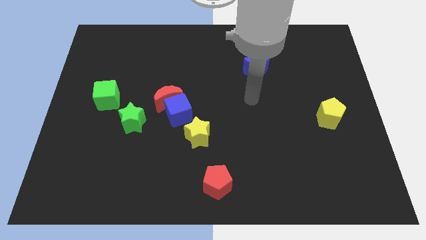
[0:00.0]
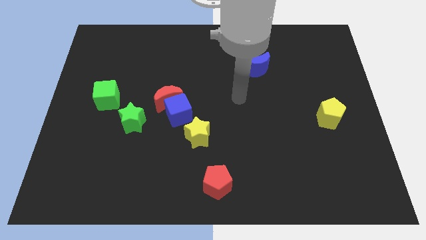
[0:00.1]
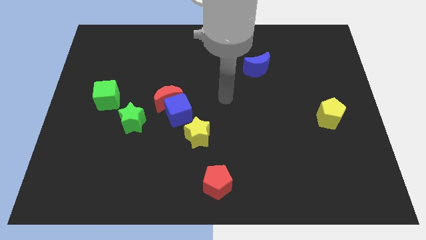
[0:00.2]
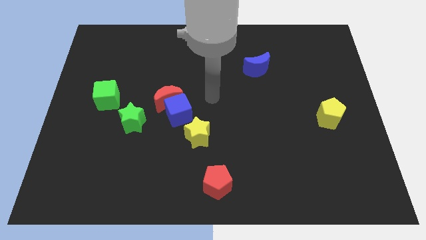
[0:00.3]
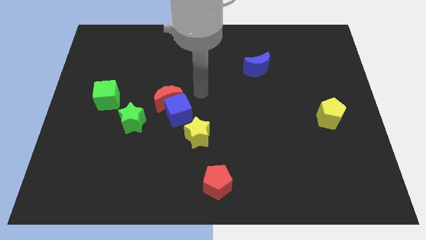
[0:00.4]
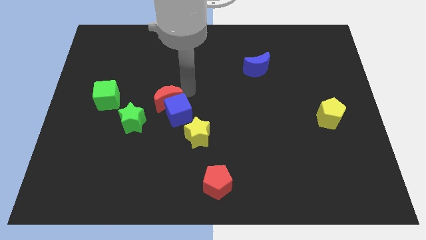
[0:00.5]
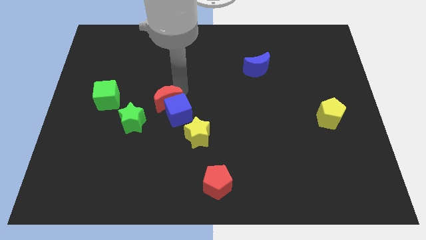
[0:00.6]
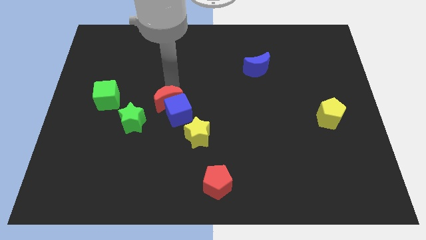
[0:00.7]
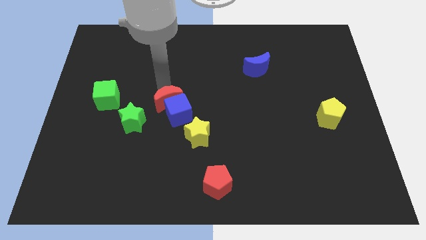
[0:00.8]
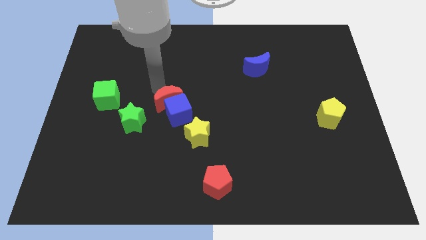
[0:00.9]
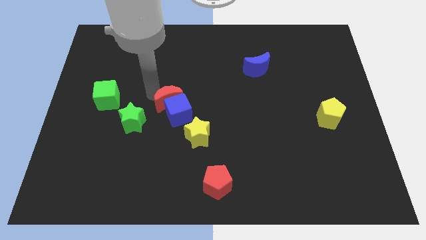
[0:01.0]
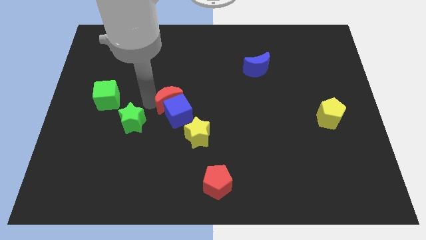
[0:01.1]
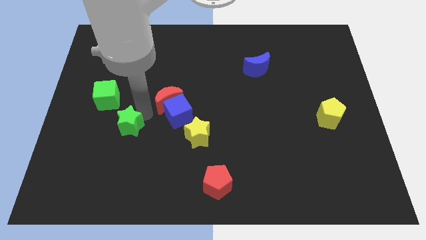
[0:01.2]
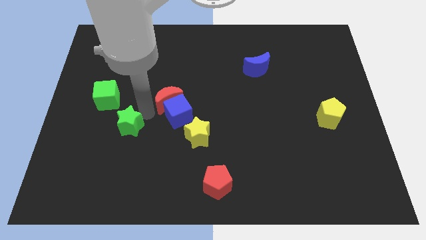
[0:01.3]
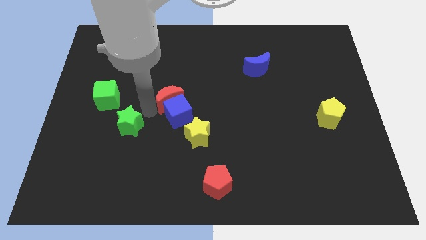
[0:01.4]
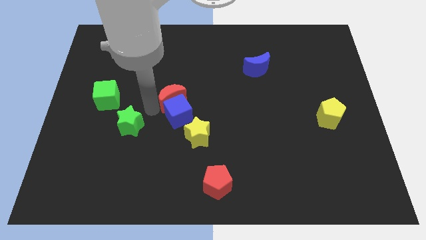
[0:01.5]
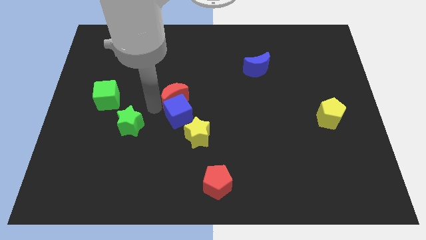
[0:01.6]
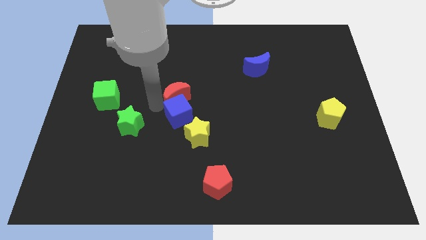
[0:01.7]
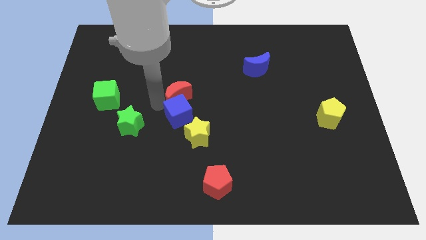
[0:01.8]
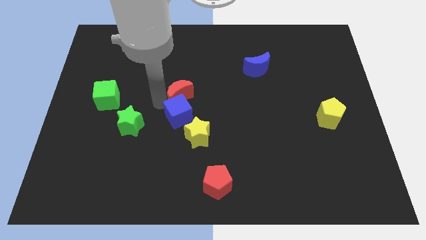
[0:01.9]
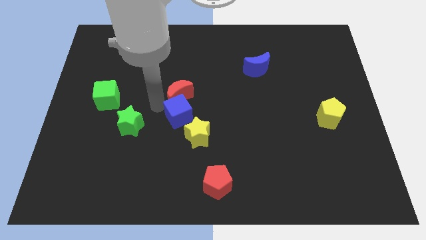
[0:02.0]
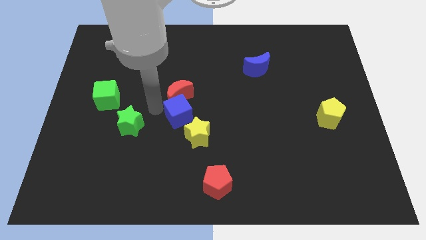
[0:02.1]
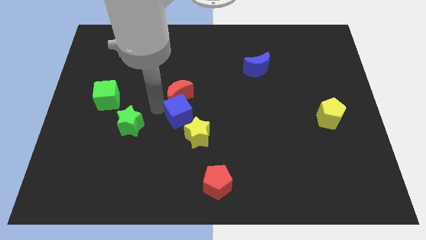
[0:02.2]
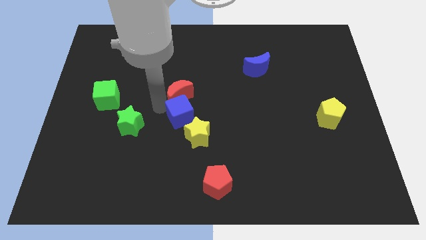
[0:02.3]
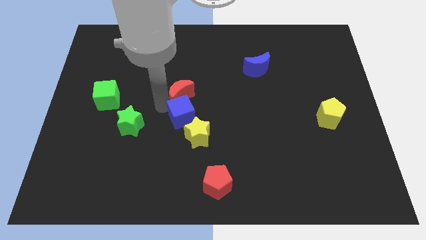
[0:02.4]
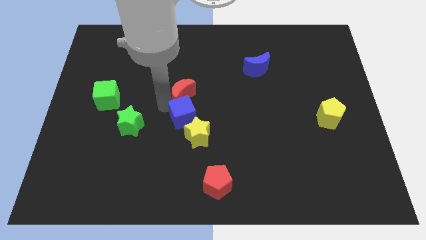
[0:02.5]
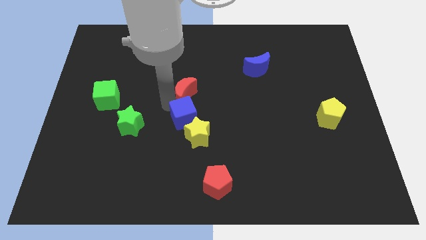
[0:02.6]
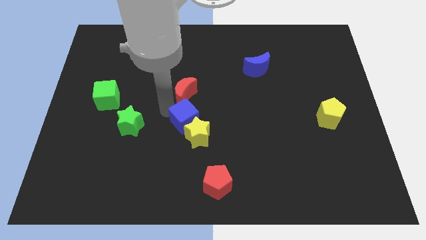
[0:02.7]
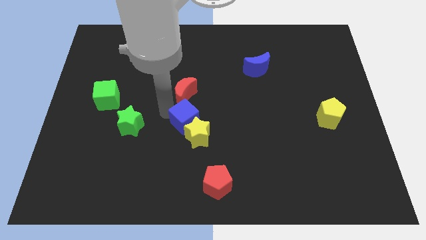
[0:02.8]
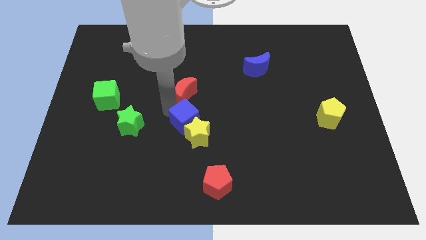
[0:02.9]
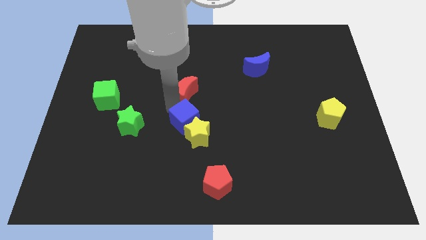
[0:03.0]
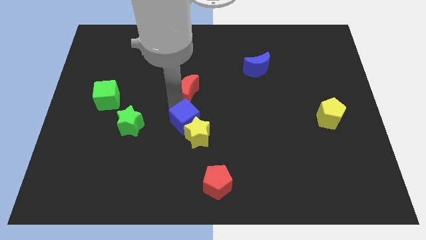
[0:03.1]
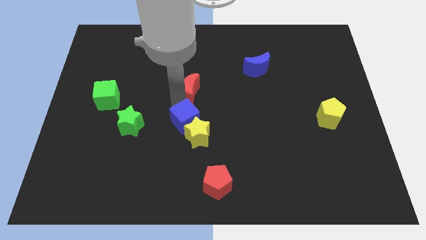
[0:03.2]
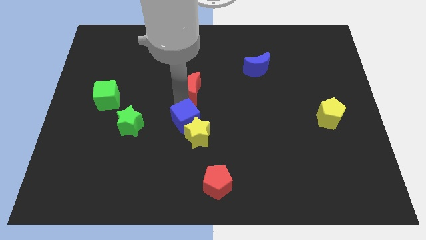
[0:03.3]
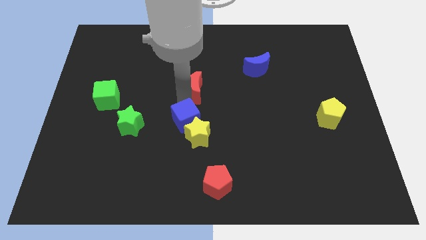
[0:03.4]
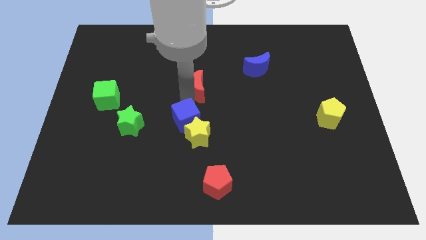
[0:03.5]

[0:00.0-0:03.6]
move the red moon diagonally up and right somewhat

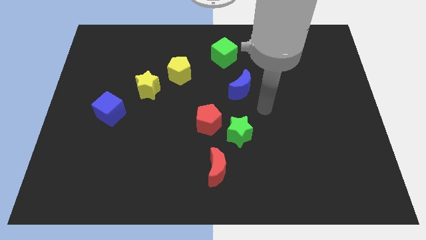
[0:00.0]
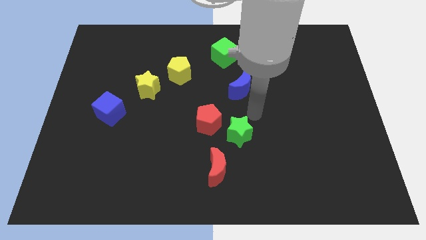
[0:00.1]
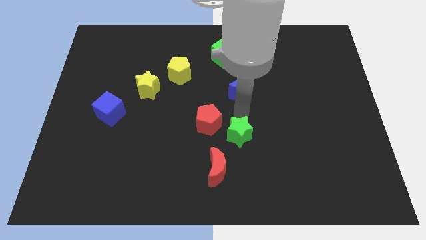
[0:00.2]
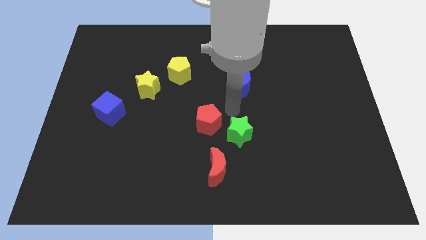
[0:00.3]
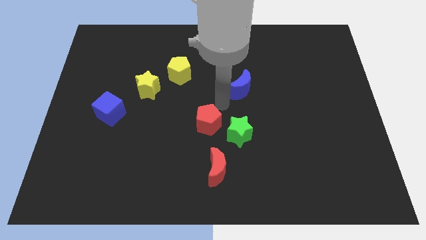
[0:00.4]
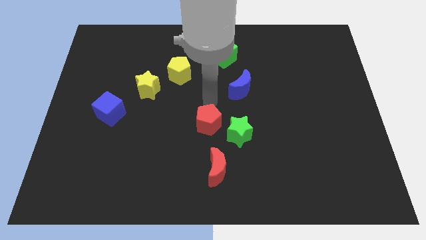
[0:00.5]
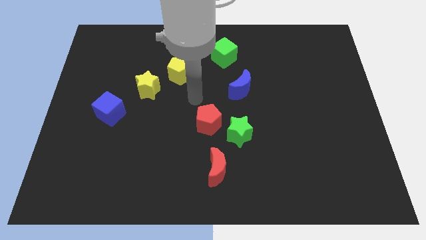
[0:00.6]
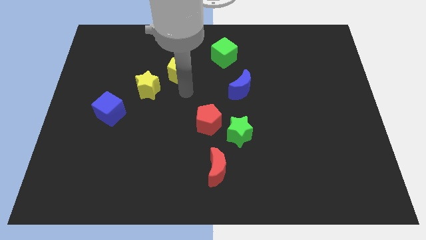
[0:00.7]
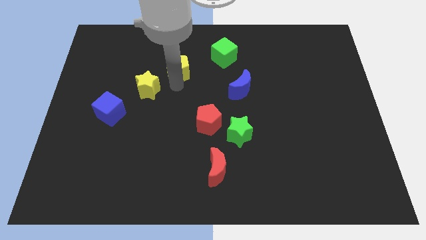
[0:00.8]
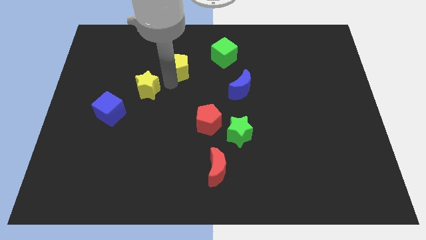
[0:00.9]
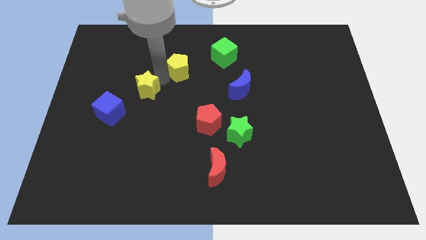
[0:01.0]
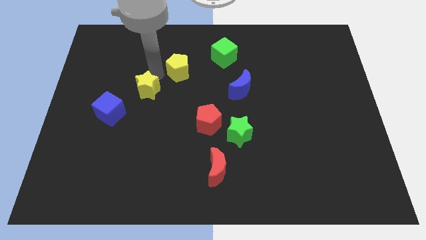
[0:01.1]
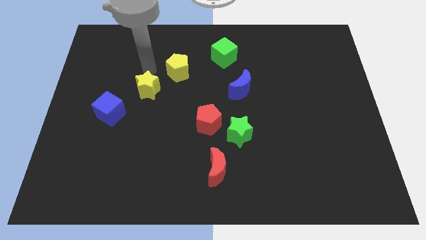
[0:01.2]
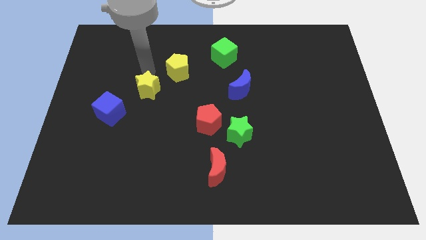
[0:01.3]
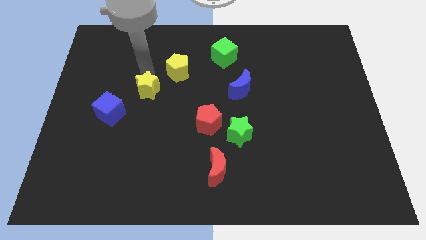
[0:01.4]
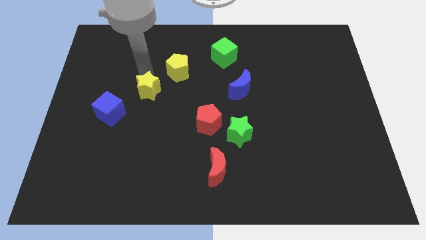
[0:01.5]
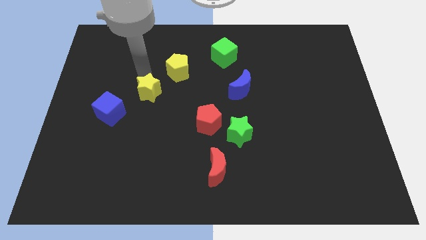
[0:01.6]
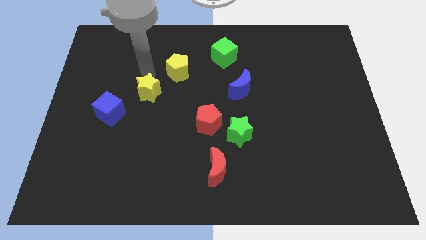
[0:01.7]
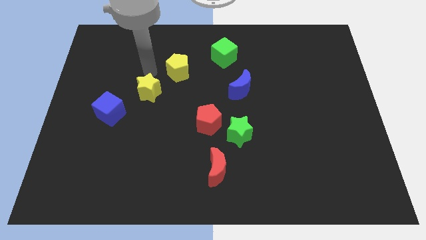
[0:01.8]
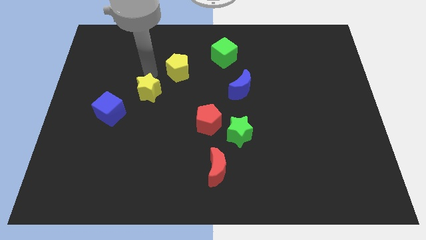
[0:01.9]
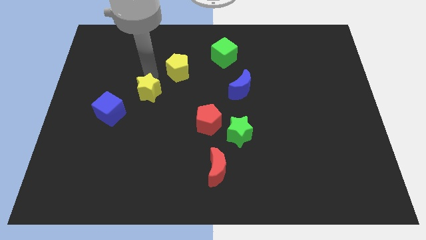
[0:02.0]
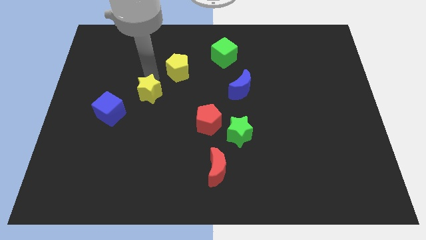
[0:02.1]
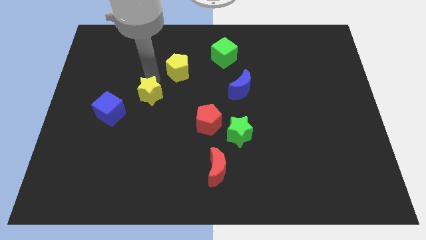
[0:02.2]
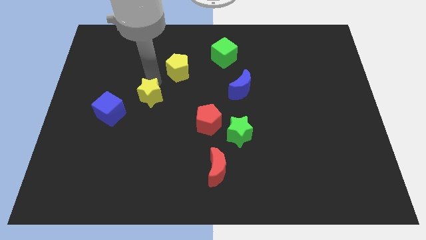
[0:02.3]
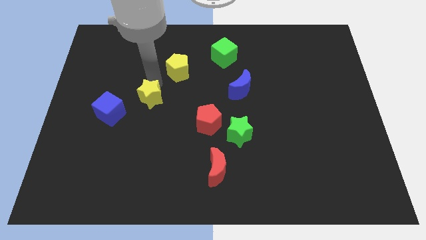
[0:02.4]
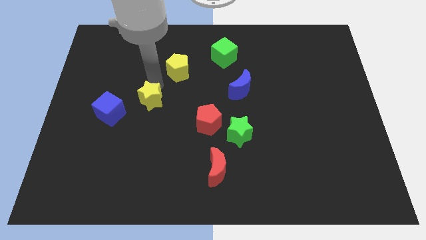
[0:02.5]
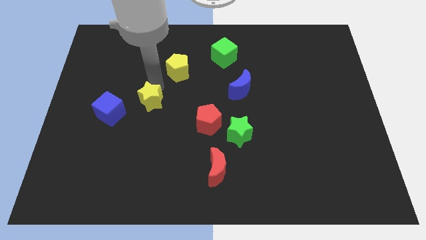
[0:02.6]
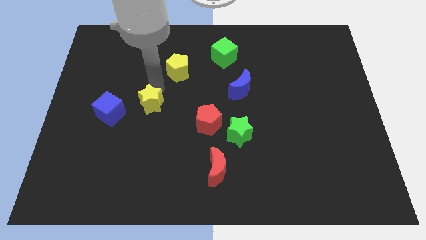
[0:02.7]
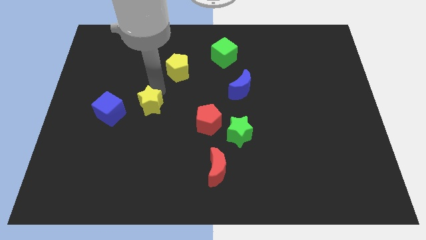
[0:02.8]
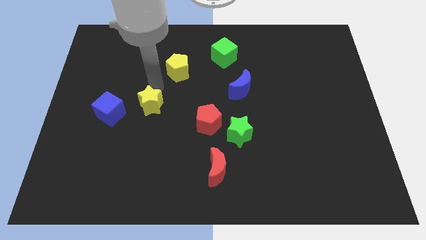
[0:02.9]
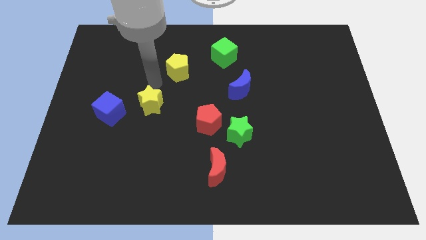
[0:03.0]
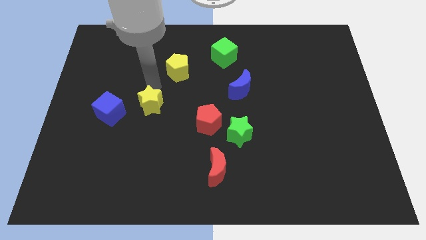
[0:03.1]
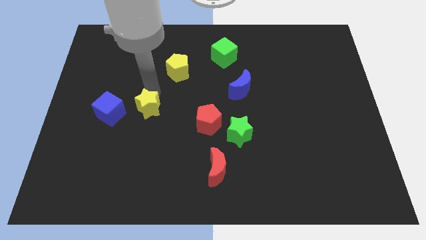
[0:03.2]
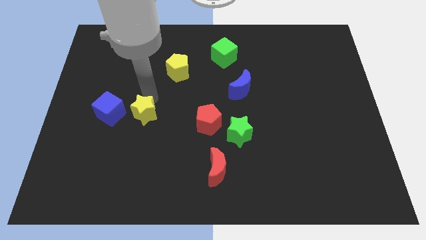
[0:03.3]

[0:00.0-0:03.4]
slightly push the yellow star down
